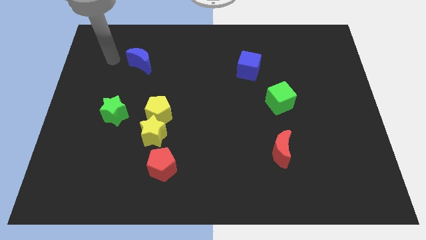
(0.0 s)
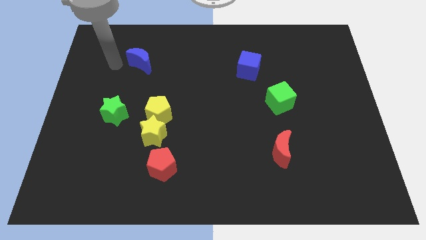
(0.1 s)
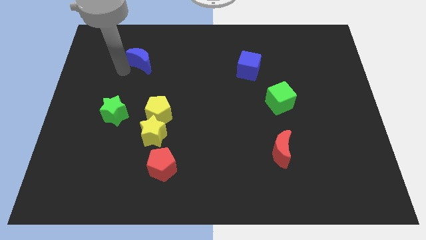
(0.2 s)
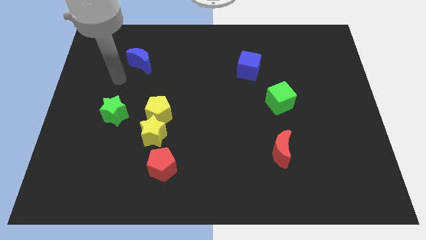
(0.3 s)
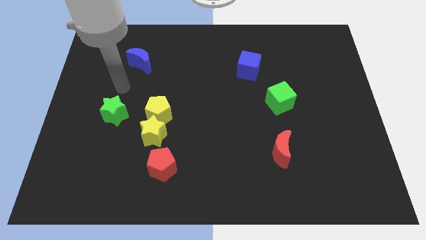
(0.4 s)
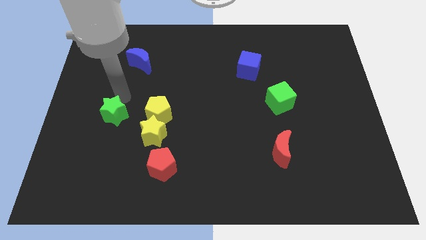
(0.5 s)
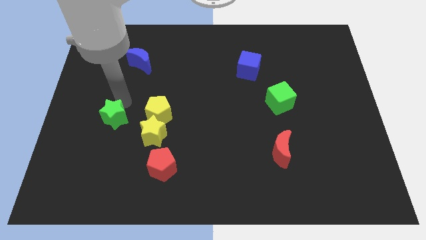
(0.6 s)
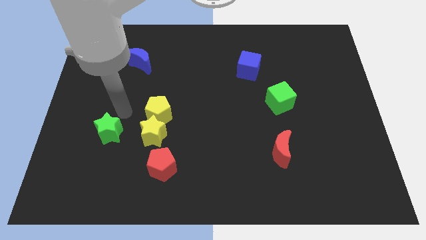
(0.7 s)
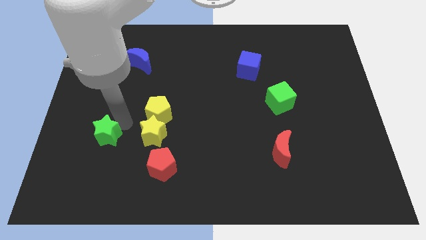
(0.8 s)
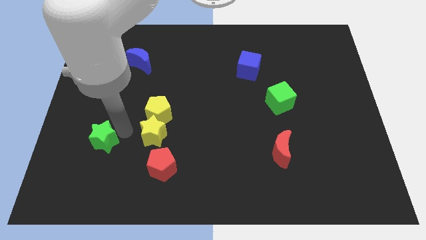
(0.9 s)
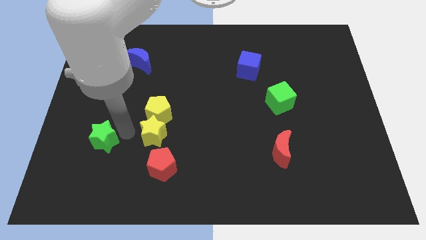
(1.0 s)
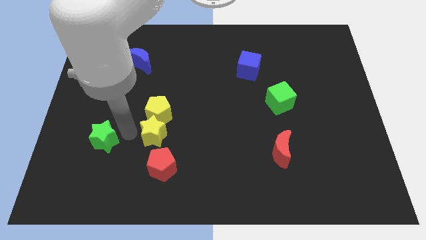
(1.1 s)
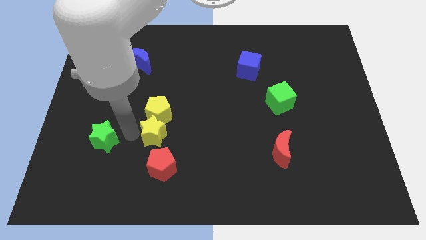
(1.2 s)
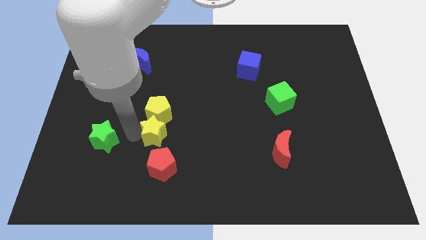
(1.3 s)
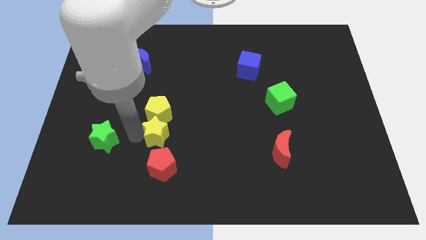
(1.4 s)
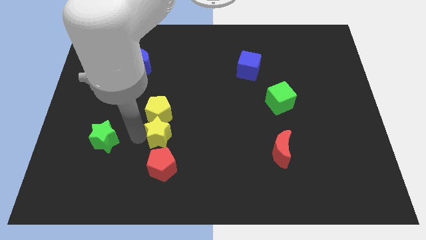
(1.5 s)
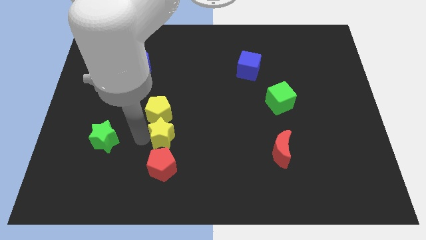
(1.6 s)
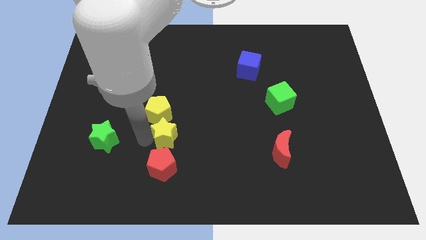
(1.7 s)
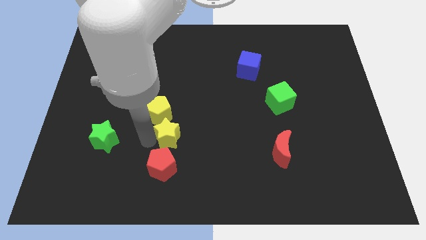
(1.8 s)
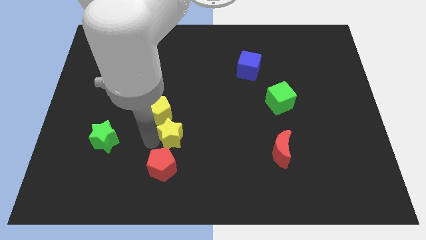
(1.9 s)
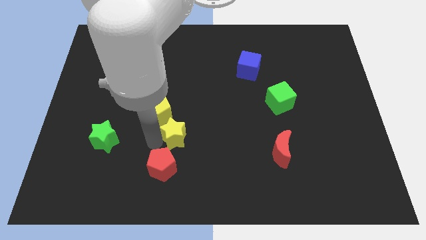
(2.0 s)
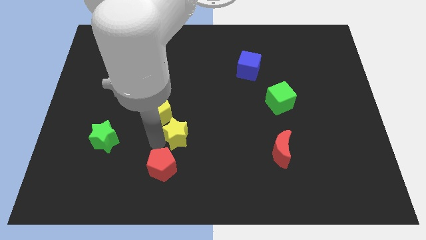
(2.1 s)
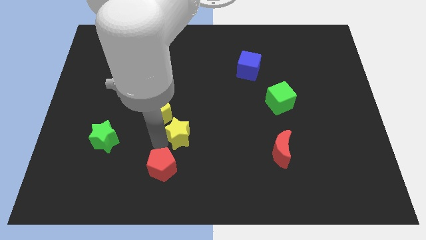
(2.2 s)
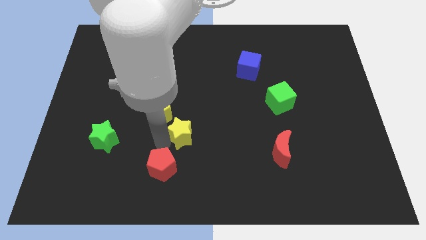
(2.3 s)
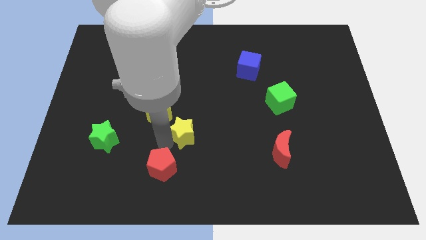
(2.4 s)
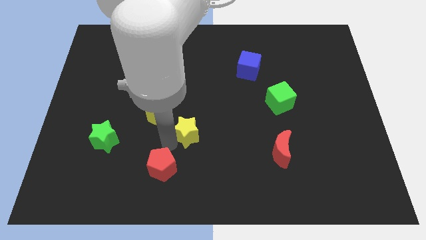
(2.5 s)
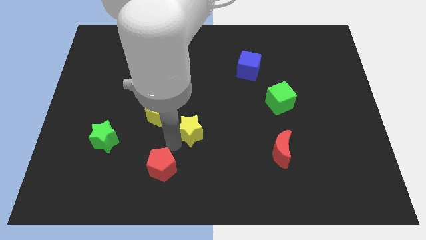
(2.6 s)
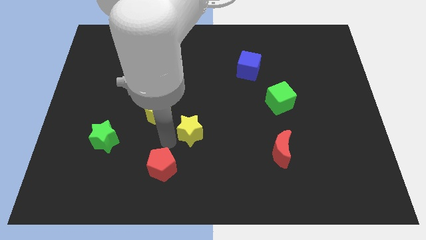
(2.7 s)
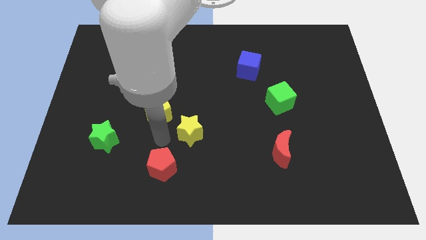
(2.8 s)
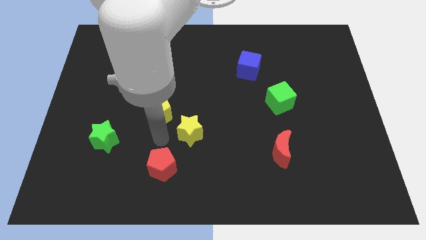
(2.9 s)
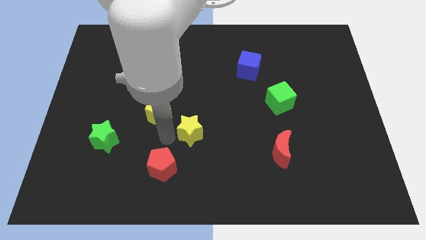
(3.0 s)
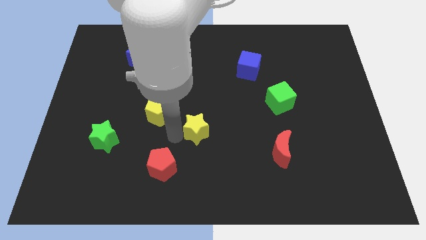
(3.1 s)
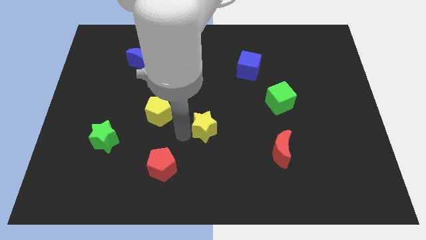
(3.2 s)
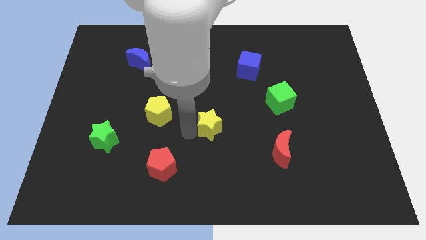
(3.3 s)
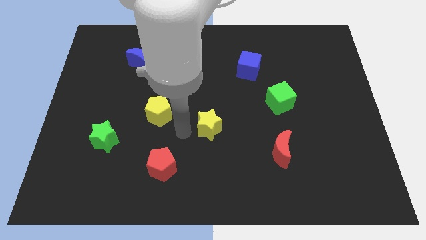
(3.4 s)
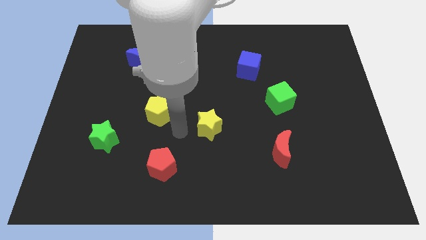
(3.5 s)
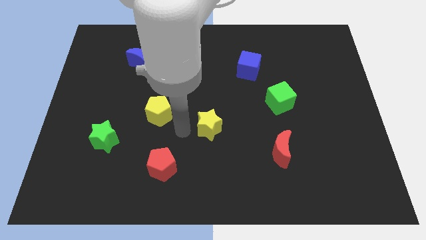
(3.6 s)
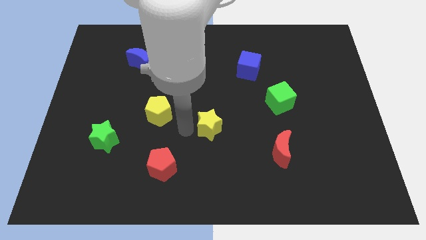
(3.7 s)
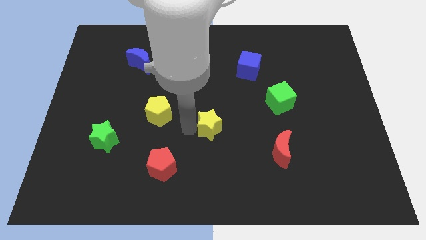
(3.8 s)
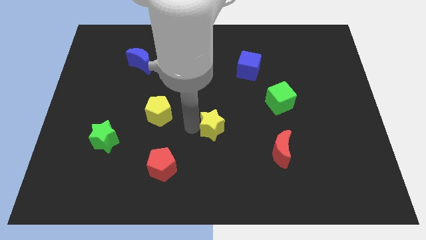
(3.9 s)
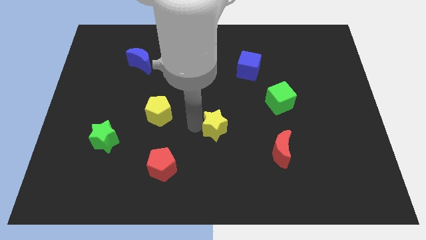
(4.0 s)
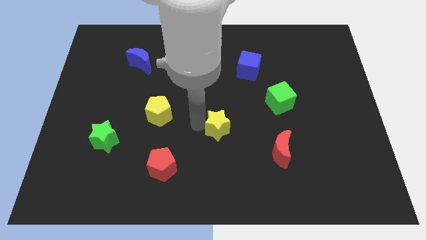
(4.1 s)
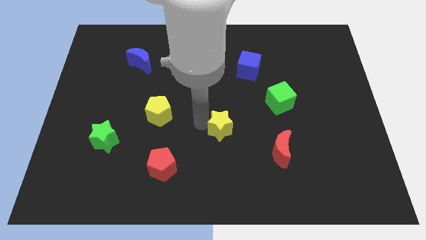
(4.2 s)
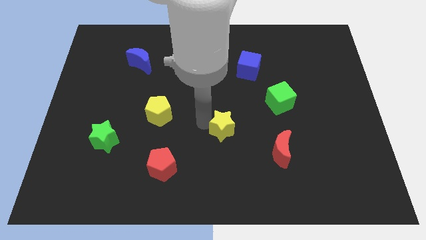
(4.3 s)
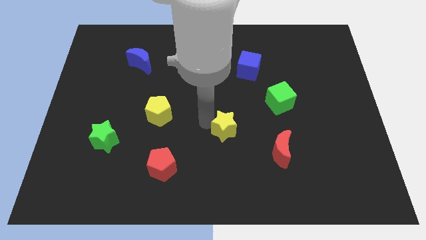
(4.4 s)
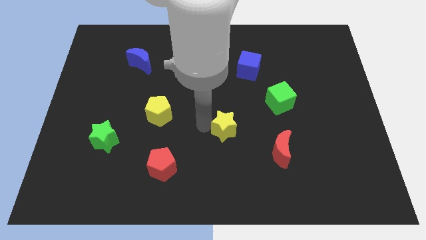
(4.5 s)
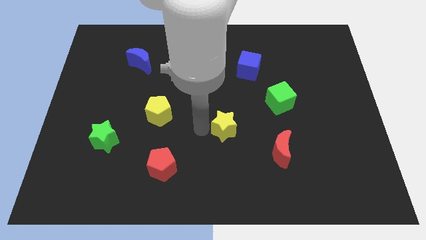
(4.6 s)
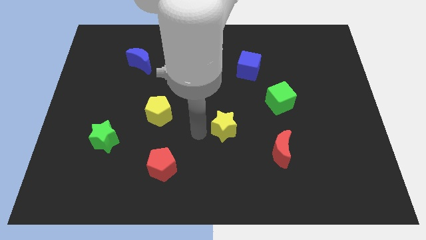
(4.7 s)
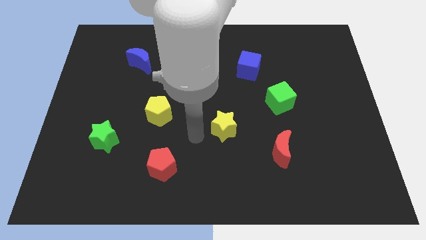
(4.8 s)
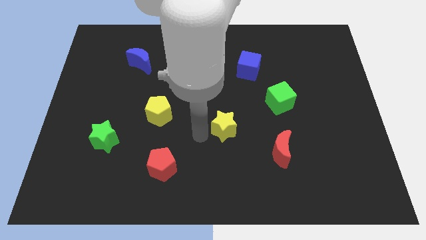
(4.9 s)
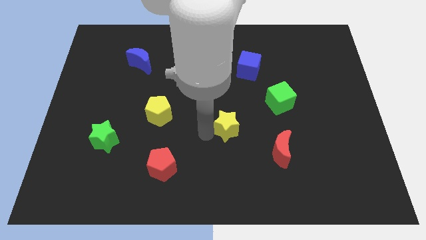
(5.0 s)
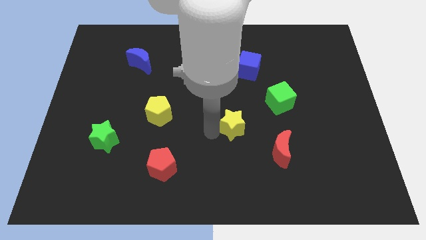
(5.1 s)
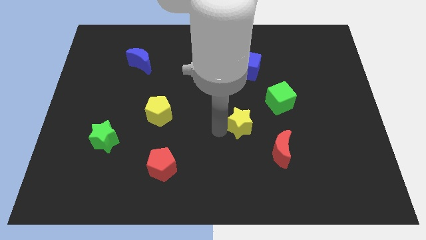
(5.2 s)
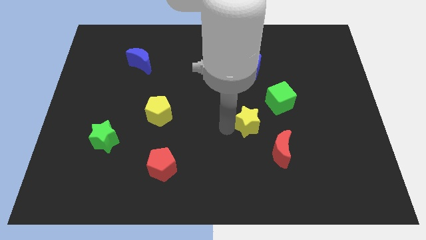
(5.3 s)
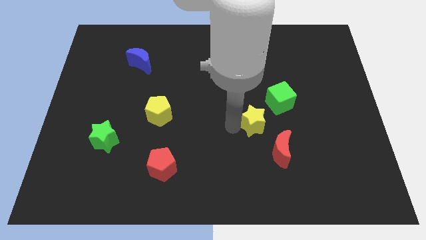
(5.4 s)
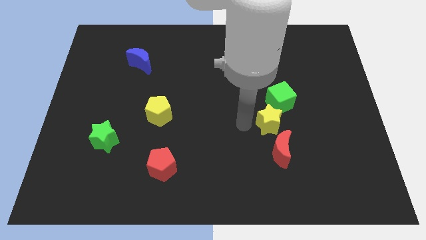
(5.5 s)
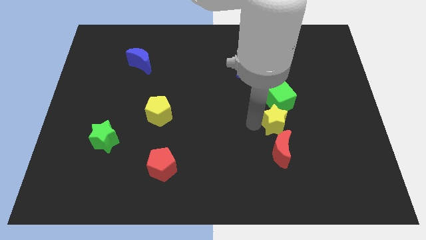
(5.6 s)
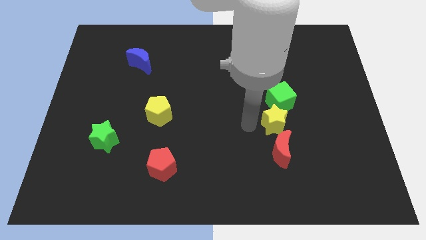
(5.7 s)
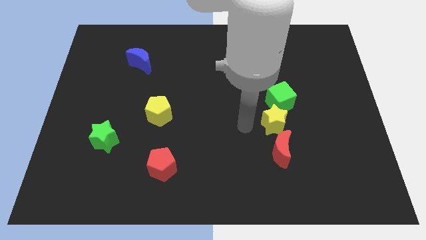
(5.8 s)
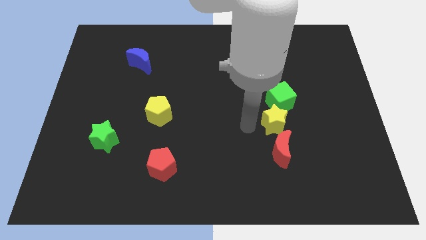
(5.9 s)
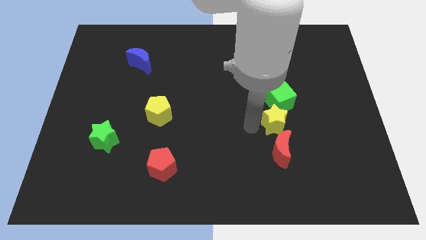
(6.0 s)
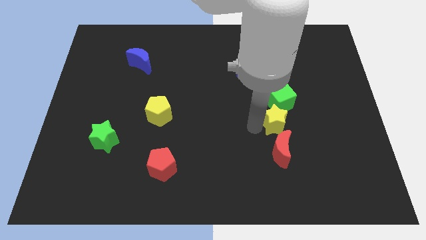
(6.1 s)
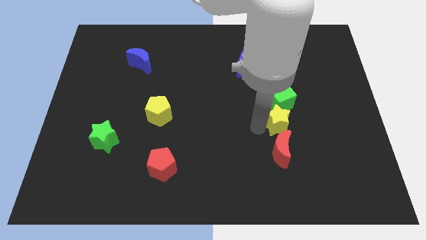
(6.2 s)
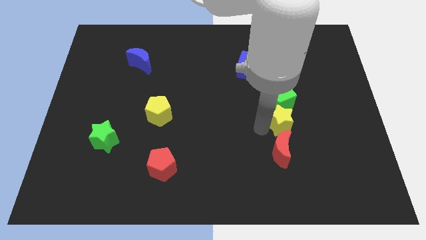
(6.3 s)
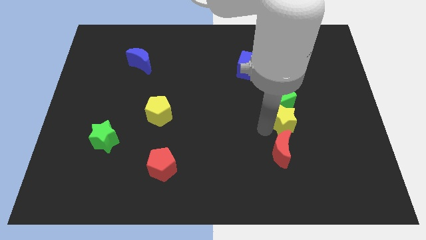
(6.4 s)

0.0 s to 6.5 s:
move the yellow star to the bottom right side of the green cube

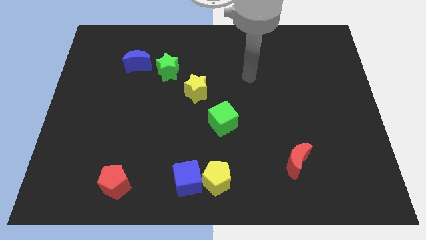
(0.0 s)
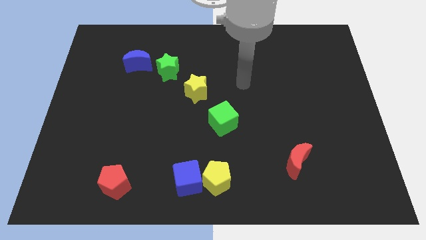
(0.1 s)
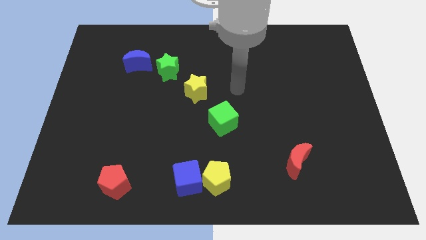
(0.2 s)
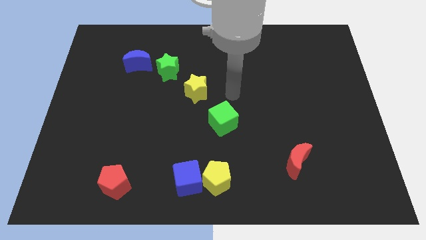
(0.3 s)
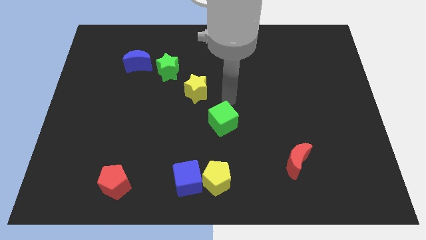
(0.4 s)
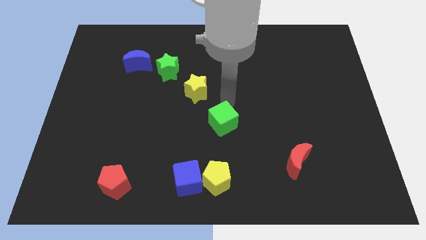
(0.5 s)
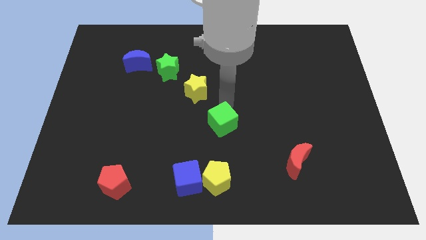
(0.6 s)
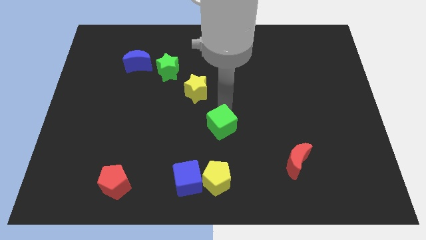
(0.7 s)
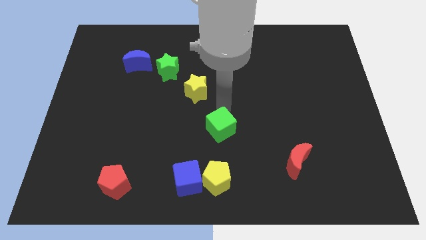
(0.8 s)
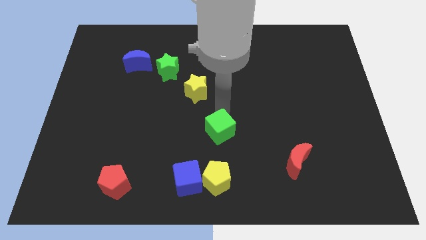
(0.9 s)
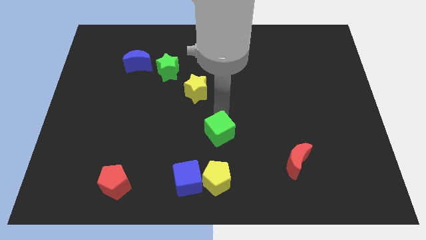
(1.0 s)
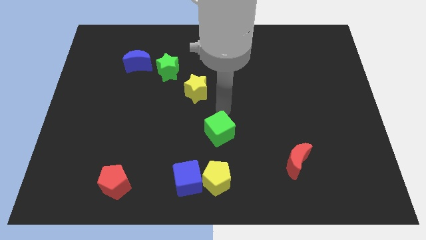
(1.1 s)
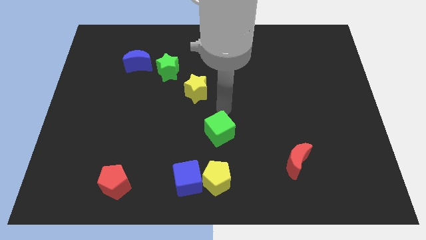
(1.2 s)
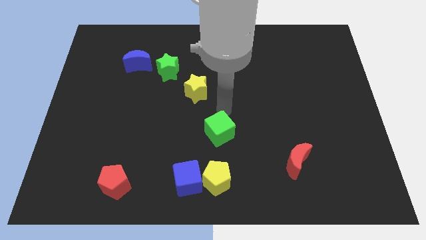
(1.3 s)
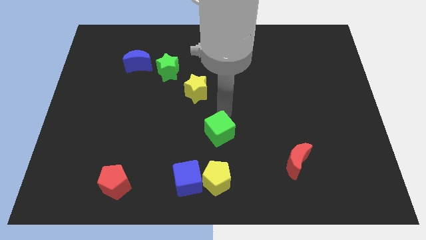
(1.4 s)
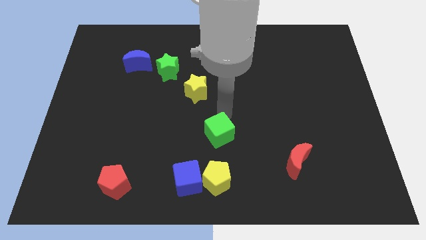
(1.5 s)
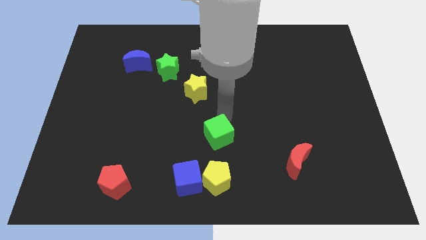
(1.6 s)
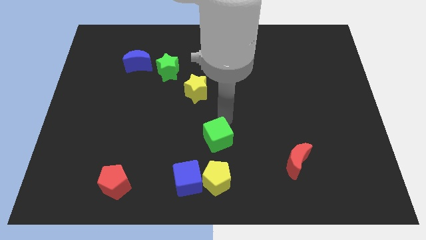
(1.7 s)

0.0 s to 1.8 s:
slide the green cube to the top right of the blue cube
